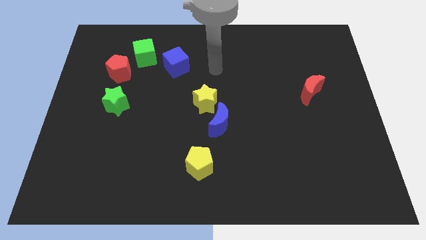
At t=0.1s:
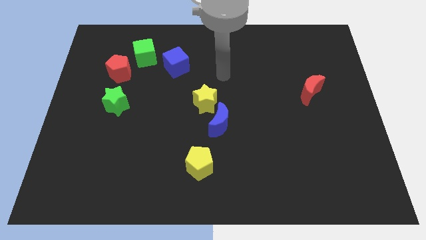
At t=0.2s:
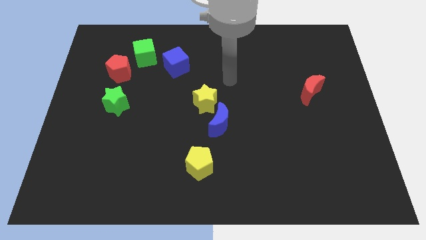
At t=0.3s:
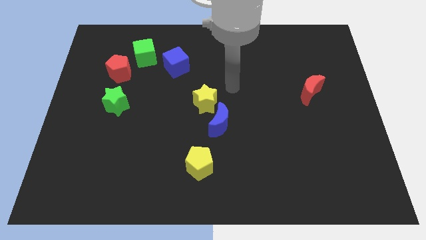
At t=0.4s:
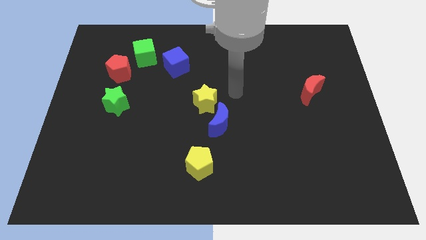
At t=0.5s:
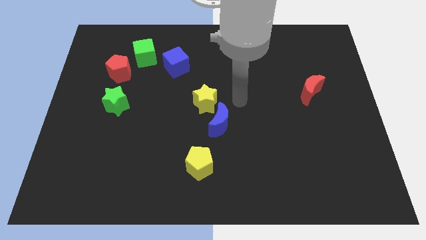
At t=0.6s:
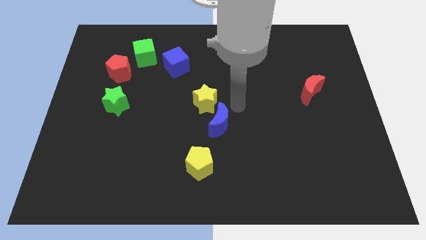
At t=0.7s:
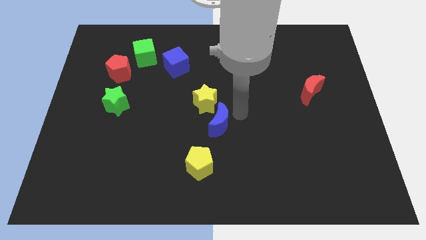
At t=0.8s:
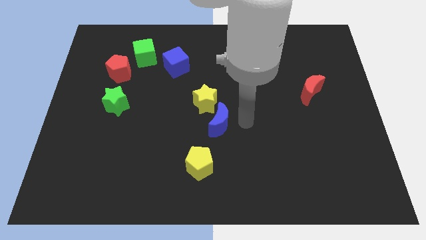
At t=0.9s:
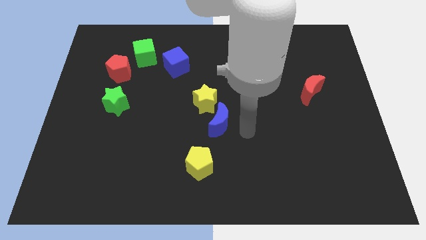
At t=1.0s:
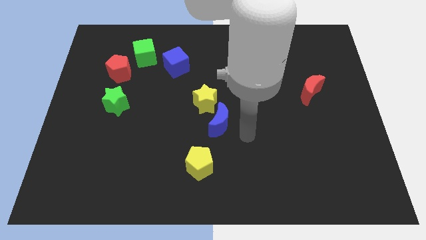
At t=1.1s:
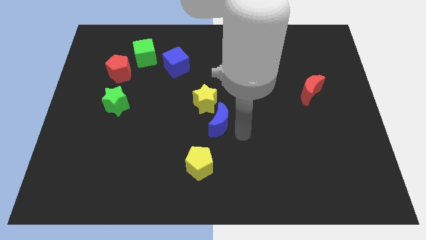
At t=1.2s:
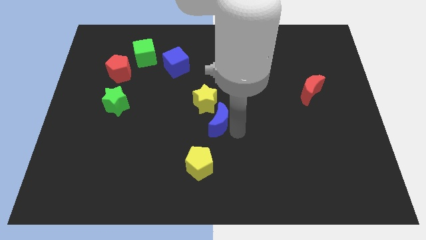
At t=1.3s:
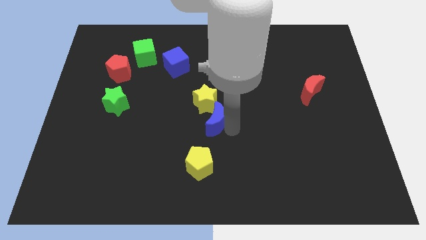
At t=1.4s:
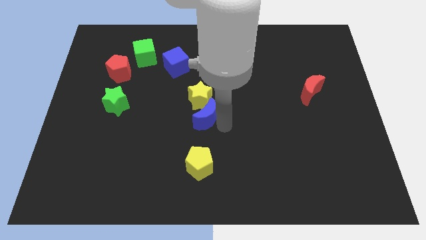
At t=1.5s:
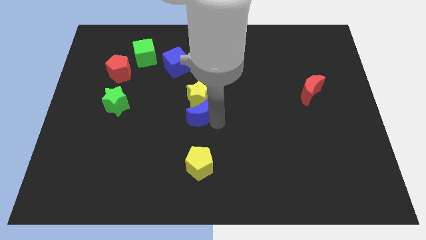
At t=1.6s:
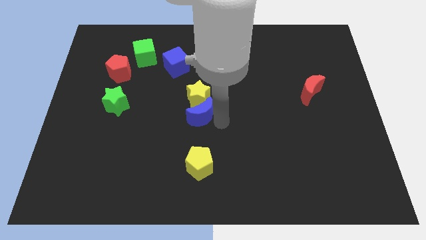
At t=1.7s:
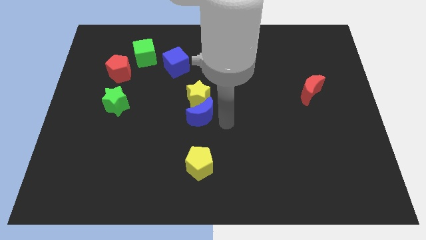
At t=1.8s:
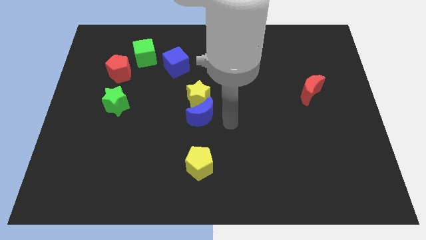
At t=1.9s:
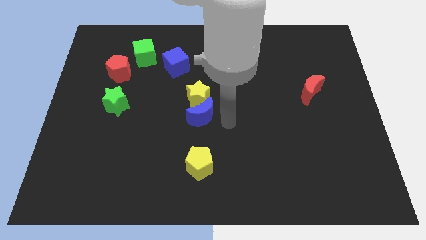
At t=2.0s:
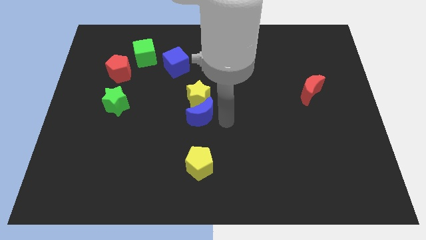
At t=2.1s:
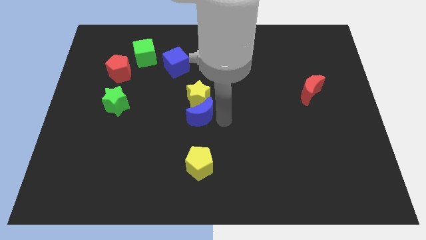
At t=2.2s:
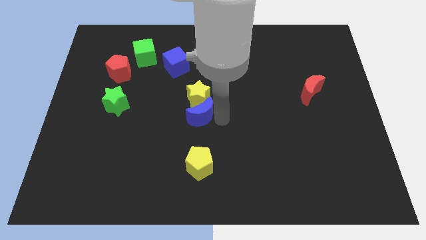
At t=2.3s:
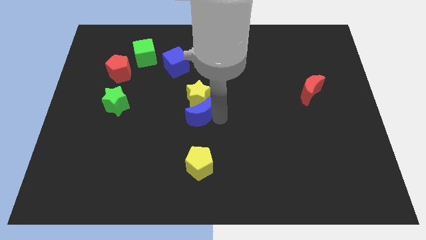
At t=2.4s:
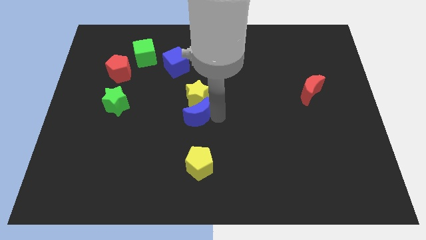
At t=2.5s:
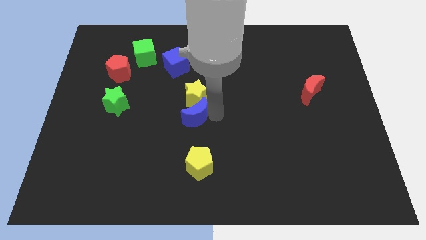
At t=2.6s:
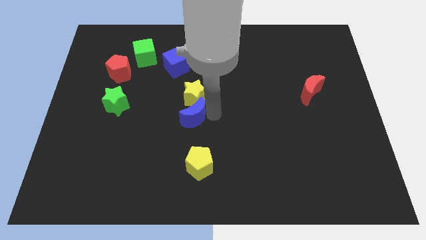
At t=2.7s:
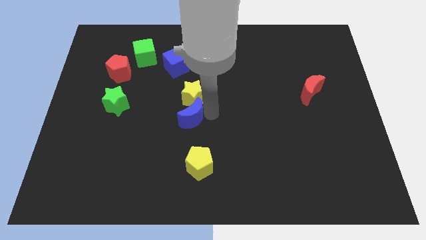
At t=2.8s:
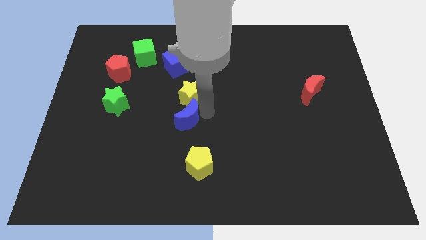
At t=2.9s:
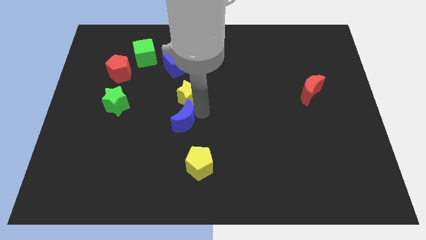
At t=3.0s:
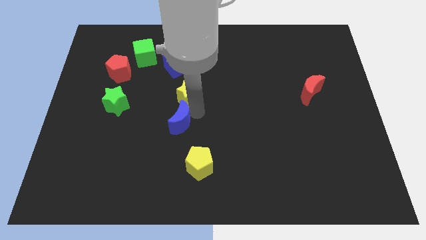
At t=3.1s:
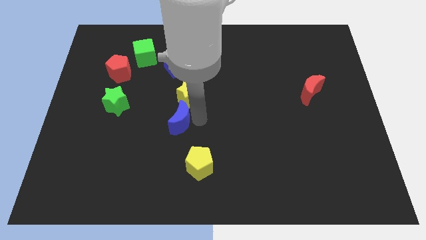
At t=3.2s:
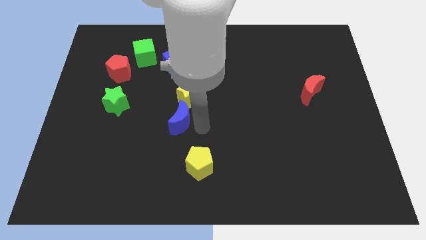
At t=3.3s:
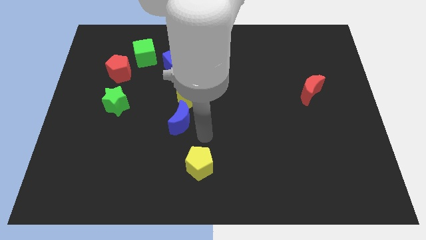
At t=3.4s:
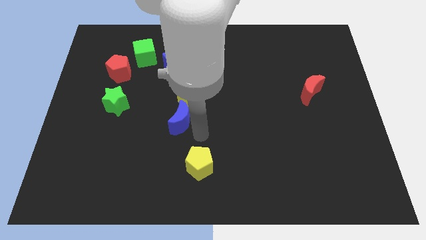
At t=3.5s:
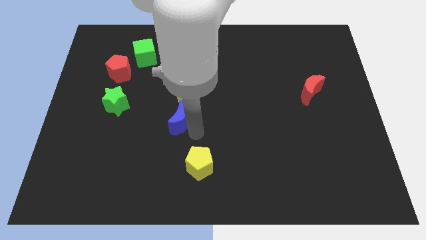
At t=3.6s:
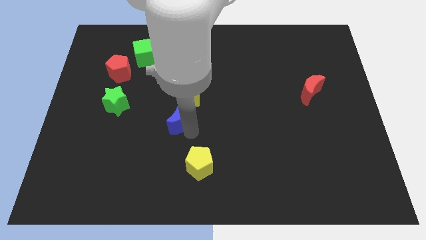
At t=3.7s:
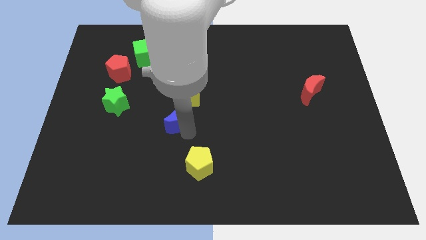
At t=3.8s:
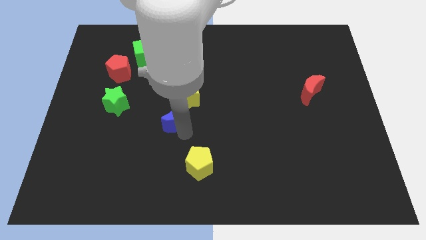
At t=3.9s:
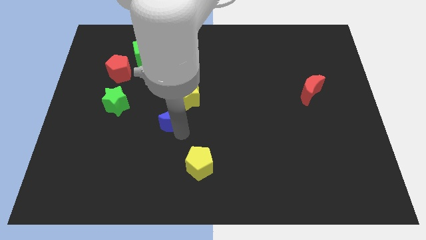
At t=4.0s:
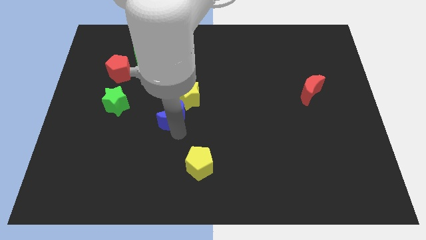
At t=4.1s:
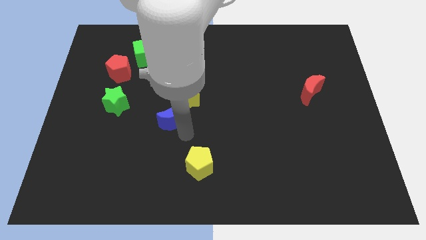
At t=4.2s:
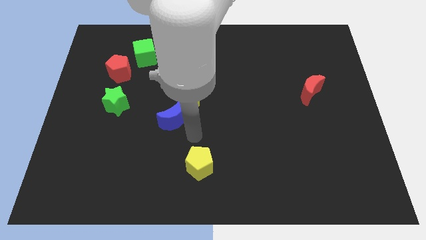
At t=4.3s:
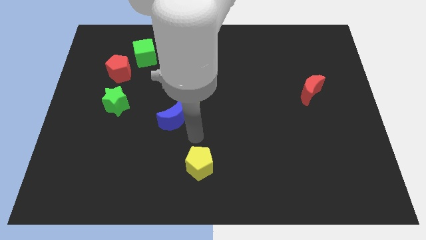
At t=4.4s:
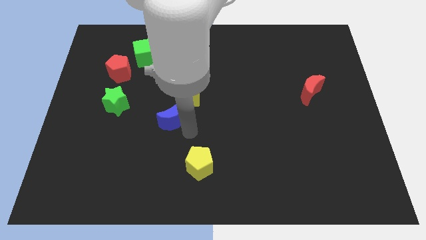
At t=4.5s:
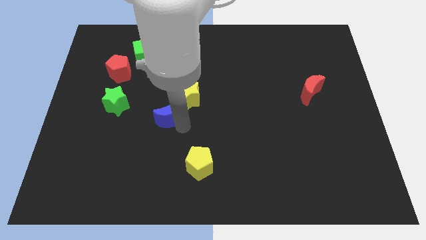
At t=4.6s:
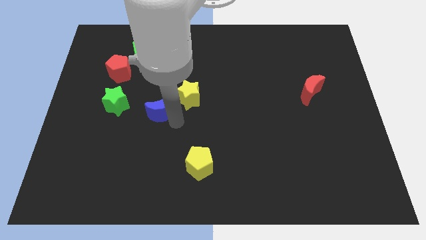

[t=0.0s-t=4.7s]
put the blue moon to the left of the yellow star

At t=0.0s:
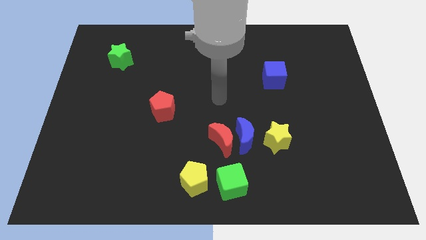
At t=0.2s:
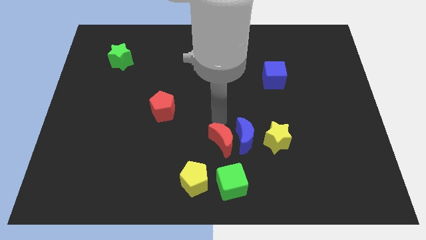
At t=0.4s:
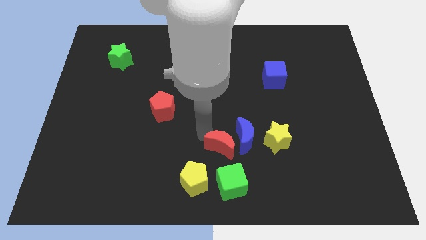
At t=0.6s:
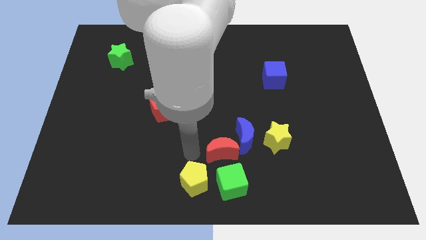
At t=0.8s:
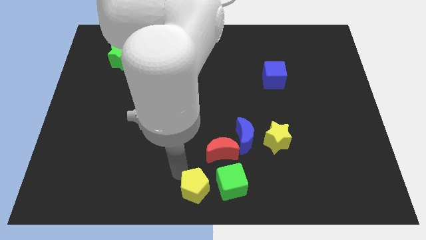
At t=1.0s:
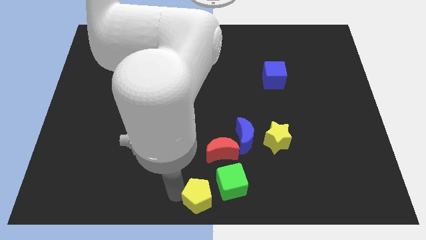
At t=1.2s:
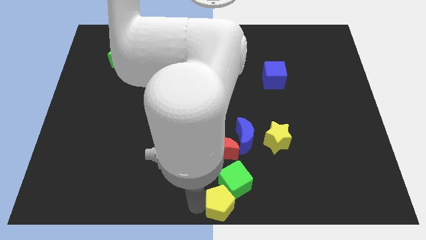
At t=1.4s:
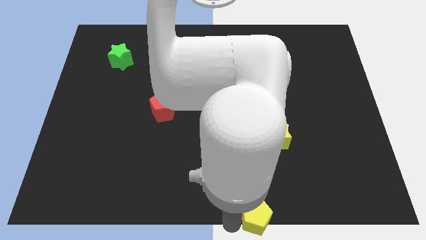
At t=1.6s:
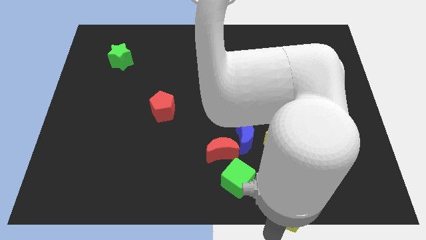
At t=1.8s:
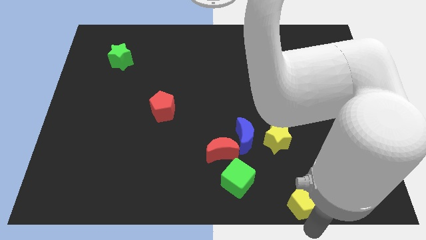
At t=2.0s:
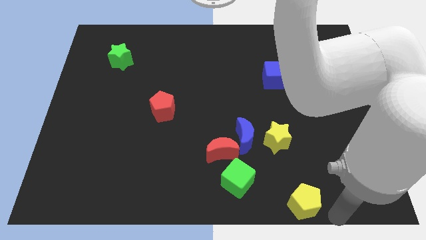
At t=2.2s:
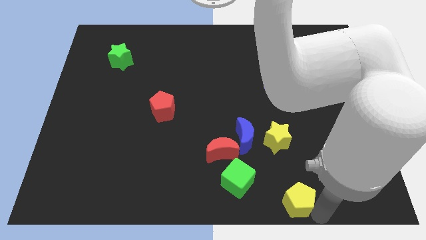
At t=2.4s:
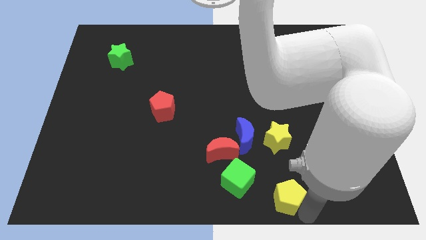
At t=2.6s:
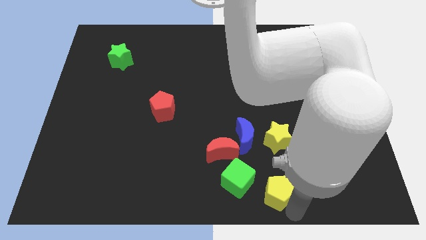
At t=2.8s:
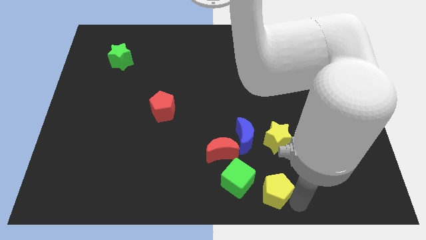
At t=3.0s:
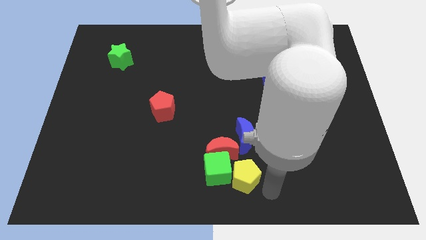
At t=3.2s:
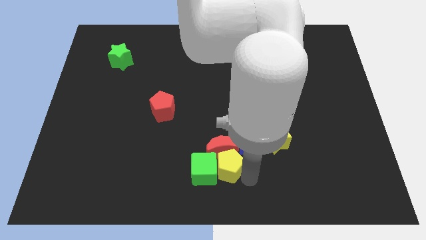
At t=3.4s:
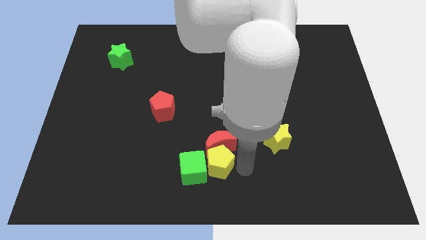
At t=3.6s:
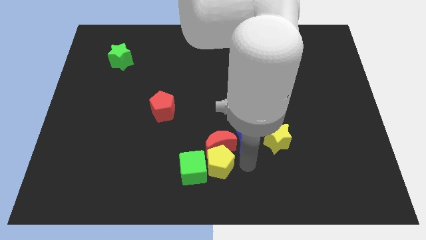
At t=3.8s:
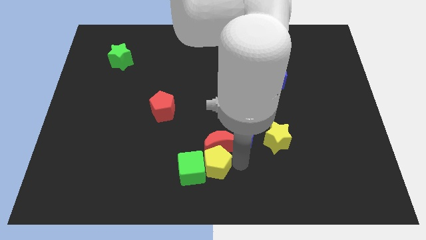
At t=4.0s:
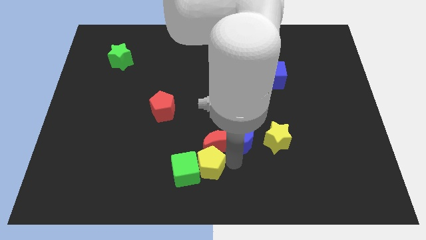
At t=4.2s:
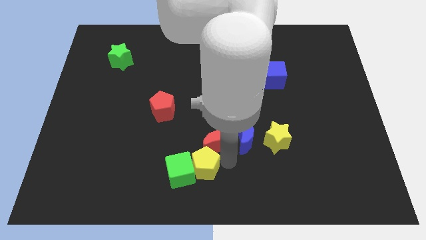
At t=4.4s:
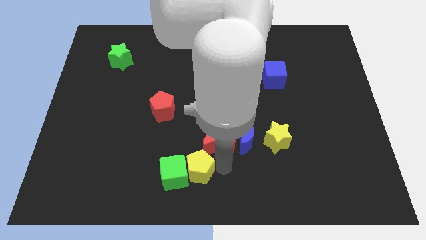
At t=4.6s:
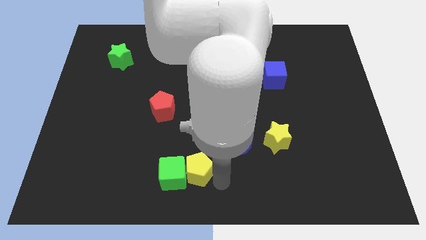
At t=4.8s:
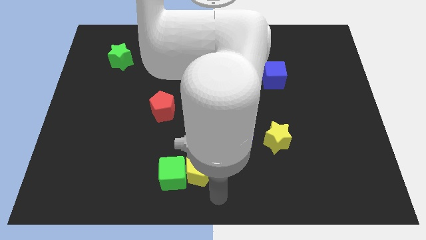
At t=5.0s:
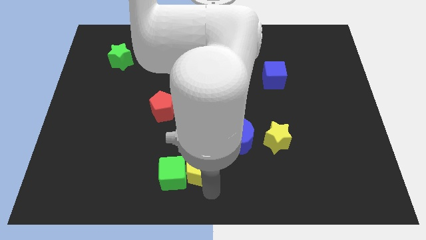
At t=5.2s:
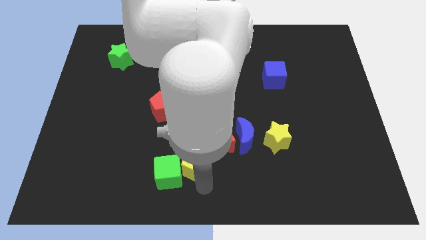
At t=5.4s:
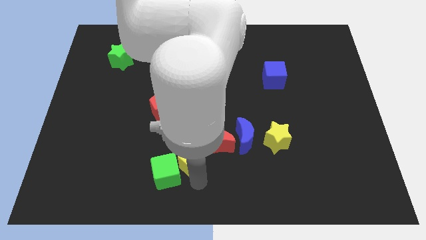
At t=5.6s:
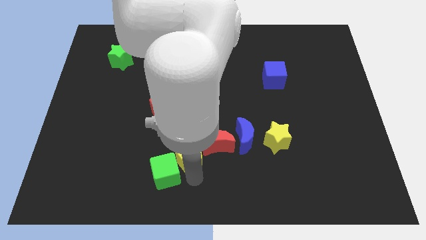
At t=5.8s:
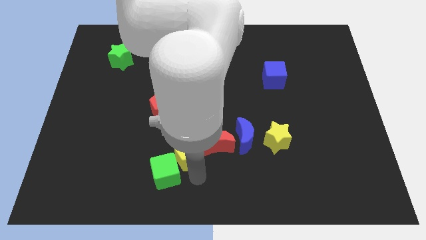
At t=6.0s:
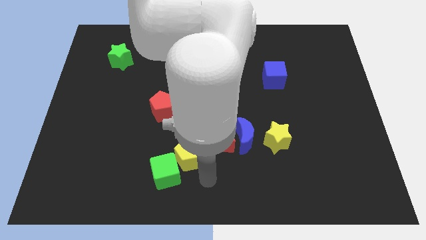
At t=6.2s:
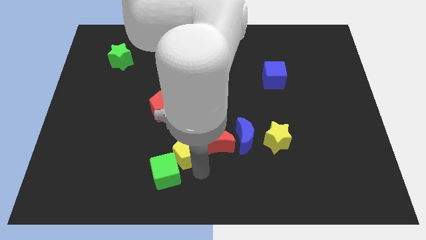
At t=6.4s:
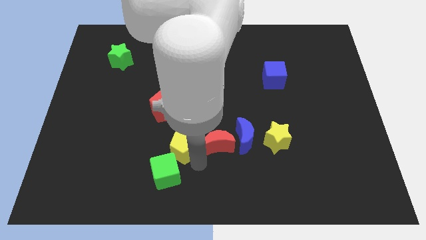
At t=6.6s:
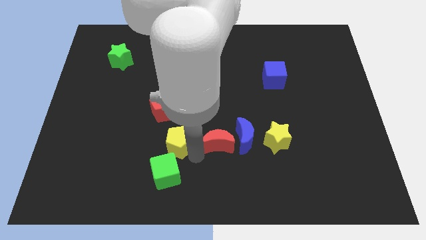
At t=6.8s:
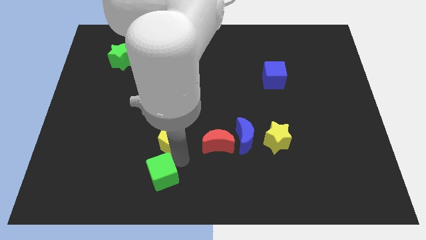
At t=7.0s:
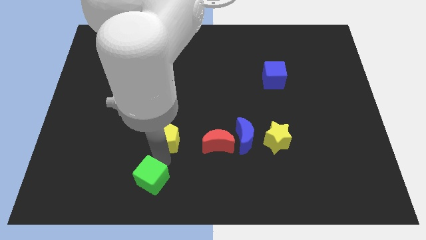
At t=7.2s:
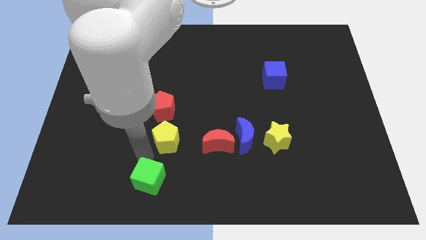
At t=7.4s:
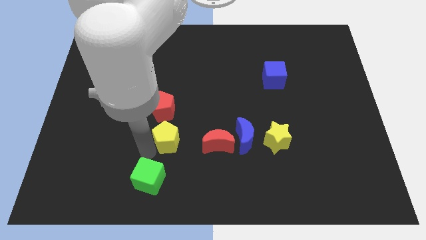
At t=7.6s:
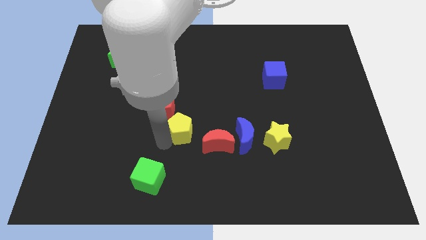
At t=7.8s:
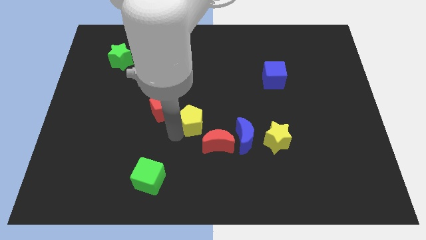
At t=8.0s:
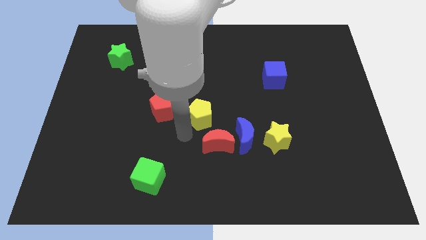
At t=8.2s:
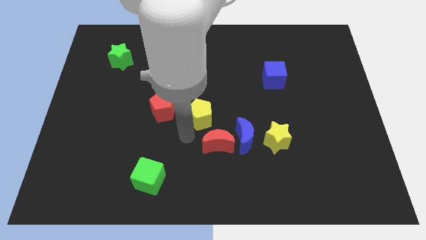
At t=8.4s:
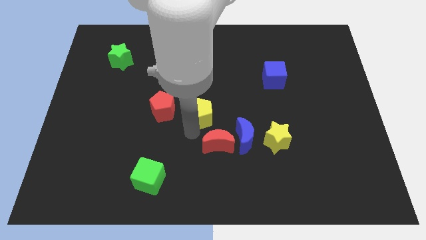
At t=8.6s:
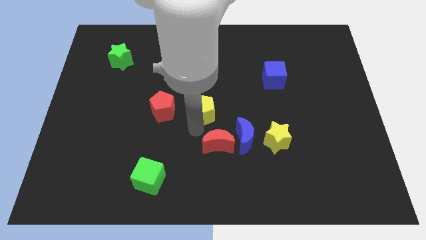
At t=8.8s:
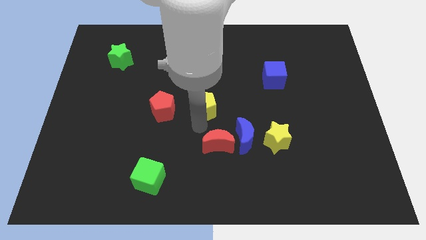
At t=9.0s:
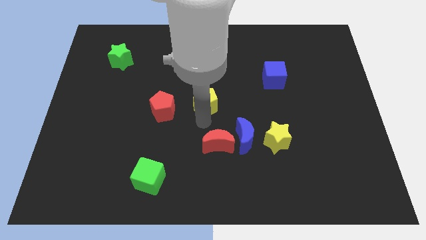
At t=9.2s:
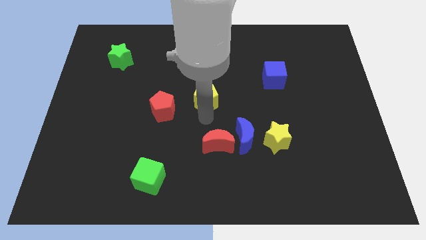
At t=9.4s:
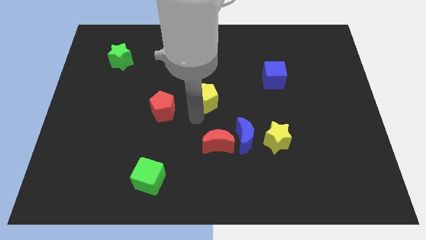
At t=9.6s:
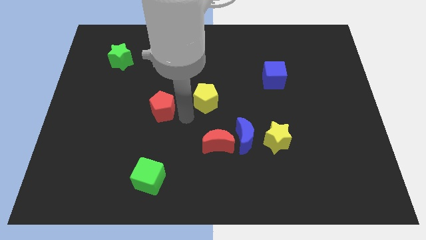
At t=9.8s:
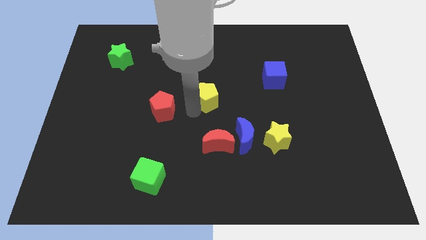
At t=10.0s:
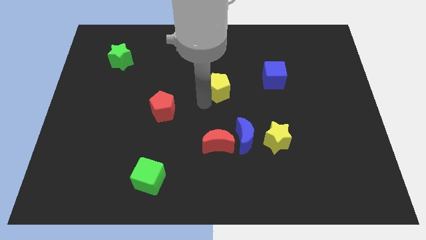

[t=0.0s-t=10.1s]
slide the yellow pentagon to the left side of the blue cube
